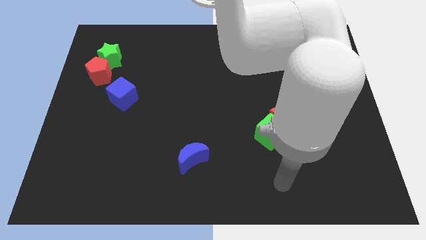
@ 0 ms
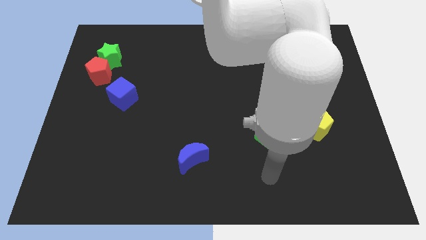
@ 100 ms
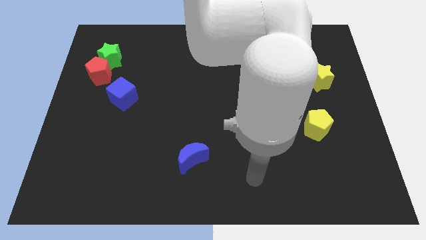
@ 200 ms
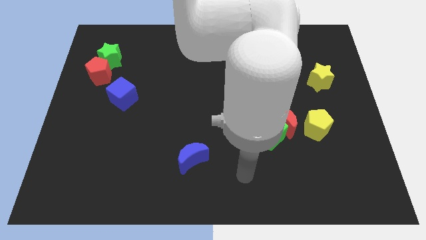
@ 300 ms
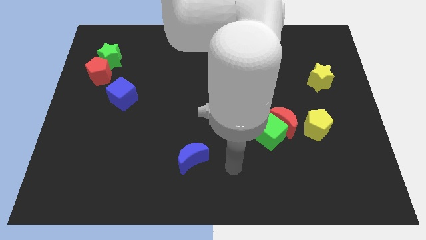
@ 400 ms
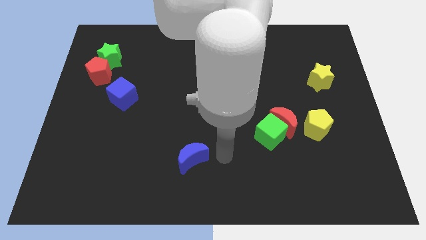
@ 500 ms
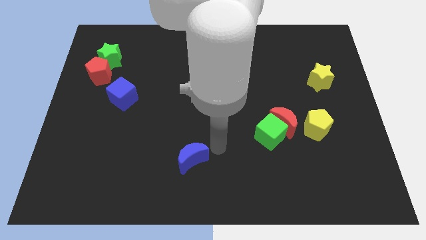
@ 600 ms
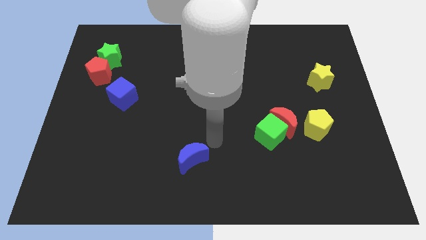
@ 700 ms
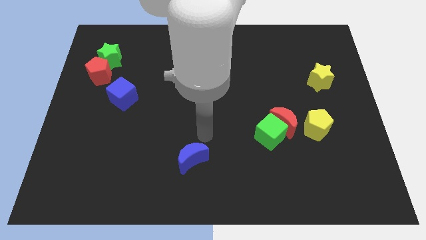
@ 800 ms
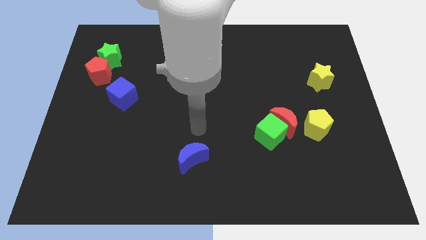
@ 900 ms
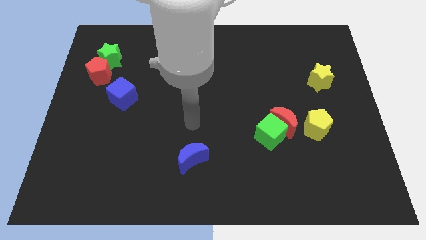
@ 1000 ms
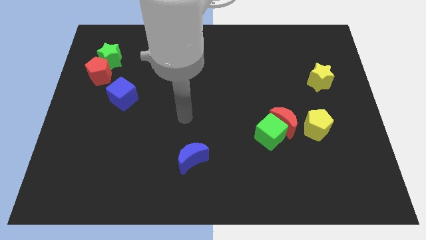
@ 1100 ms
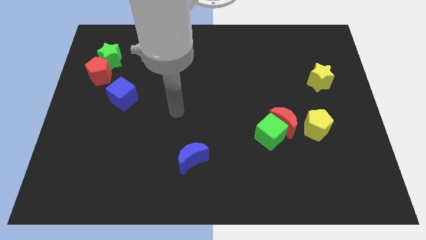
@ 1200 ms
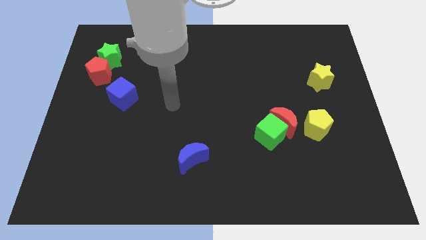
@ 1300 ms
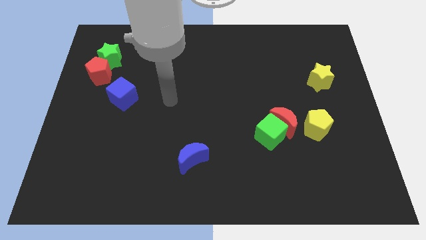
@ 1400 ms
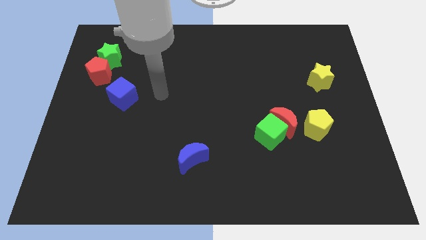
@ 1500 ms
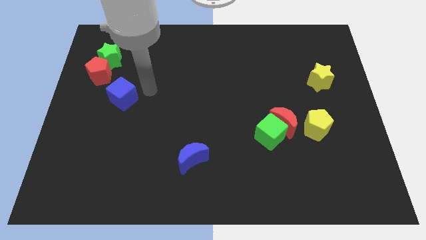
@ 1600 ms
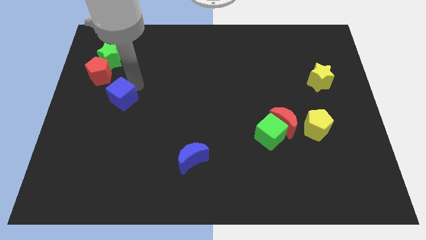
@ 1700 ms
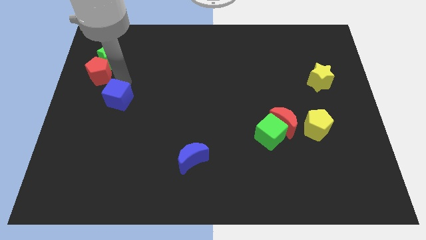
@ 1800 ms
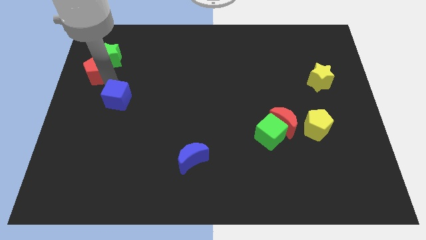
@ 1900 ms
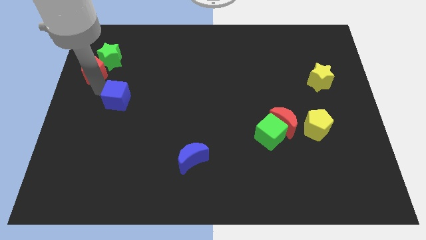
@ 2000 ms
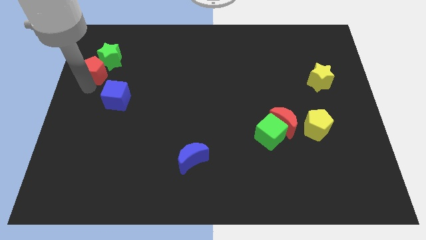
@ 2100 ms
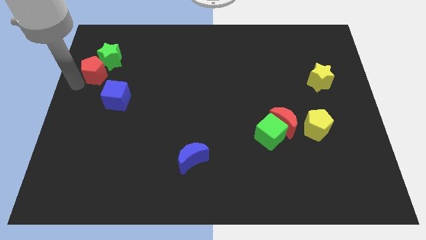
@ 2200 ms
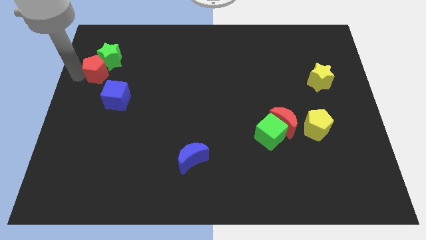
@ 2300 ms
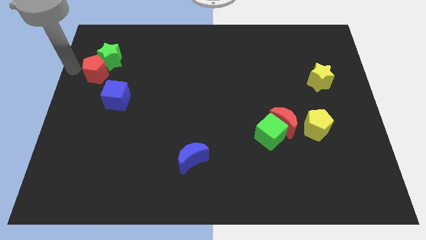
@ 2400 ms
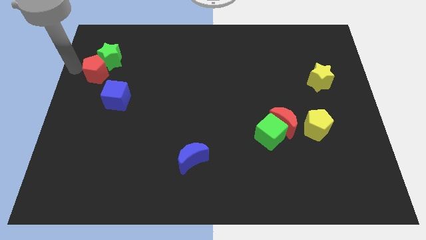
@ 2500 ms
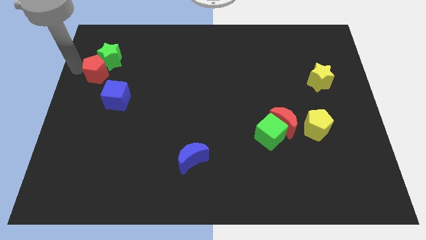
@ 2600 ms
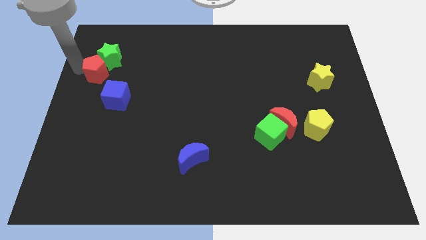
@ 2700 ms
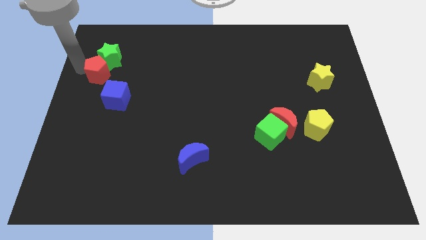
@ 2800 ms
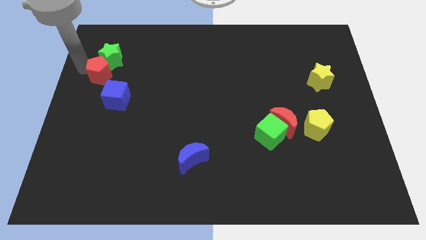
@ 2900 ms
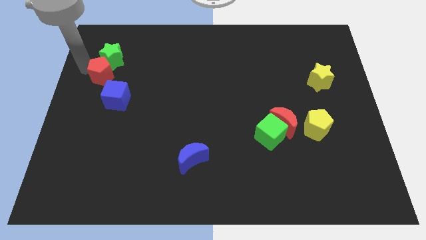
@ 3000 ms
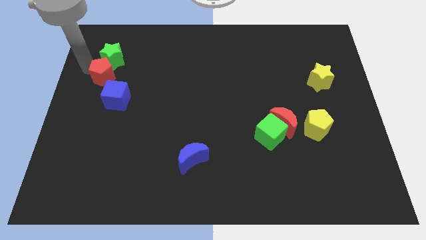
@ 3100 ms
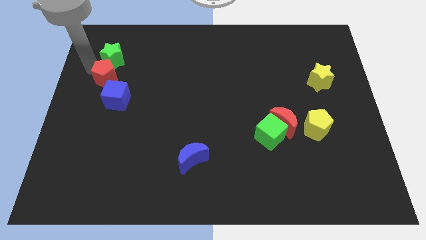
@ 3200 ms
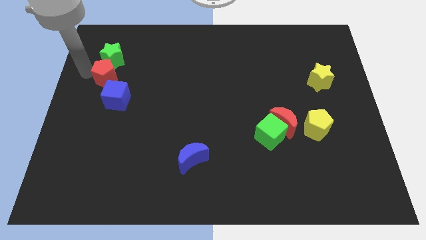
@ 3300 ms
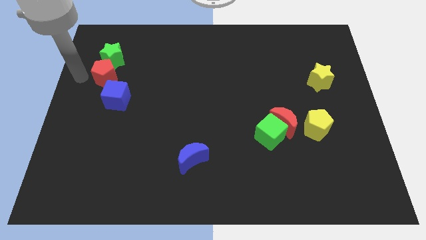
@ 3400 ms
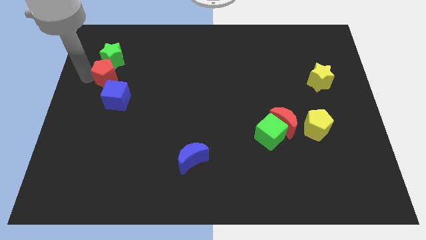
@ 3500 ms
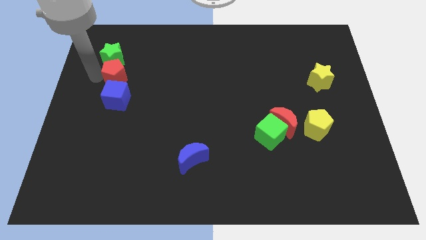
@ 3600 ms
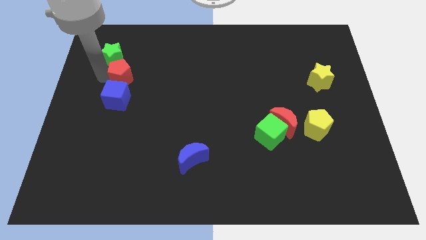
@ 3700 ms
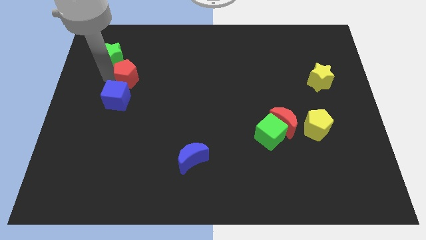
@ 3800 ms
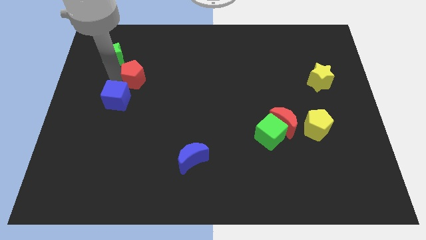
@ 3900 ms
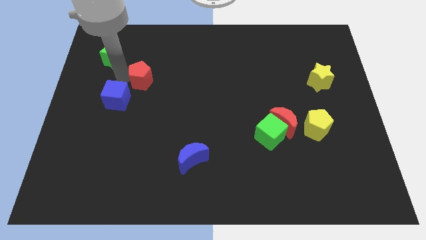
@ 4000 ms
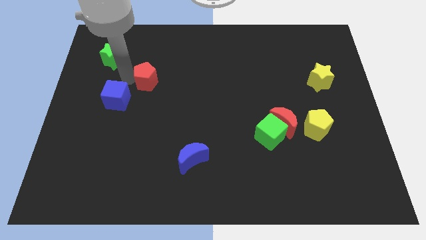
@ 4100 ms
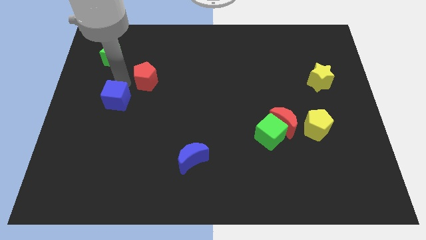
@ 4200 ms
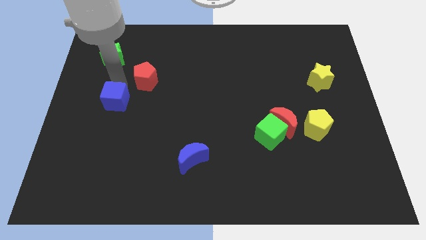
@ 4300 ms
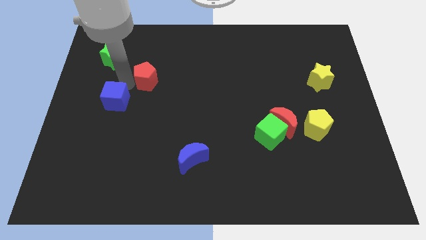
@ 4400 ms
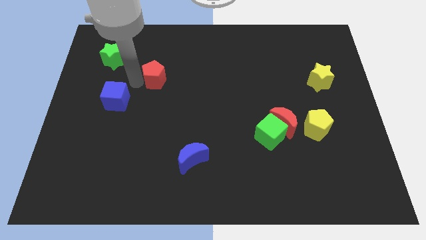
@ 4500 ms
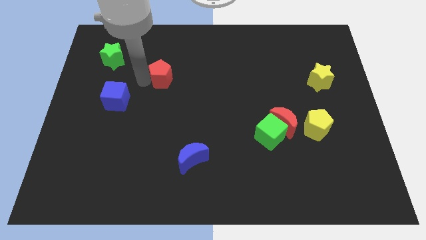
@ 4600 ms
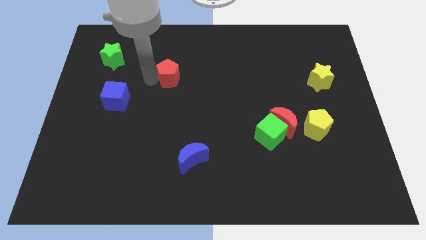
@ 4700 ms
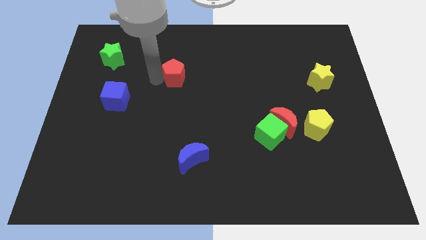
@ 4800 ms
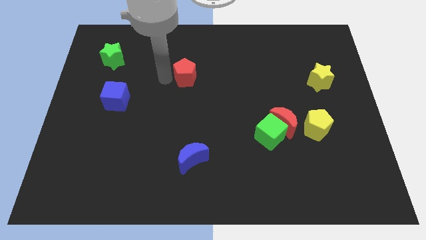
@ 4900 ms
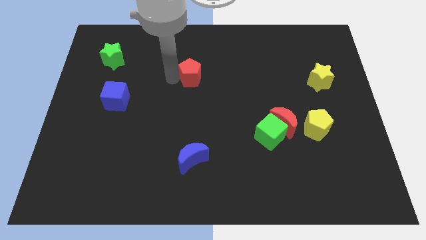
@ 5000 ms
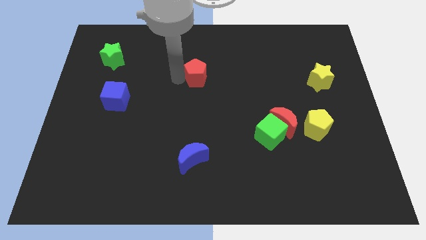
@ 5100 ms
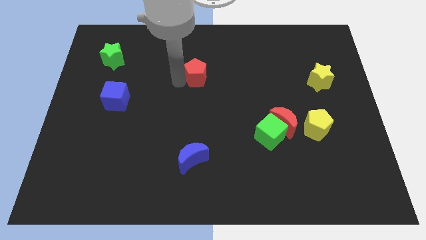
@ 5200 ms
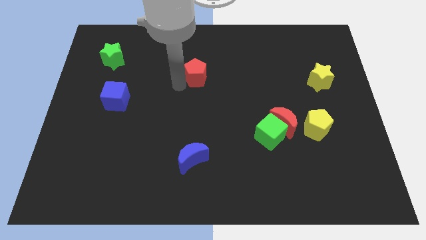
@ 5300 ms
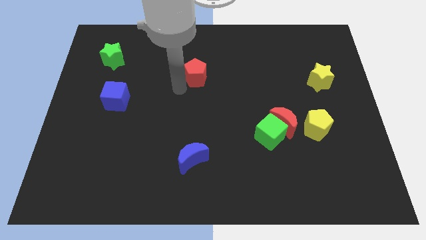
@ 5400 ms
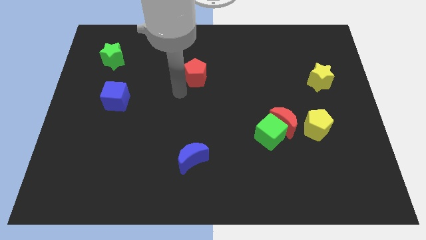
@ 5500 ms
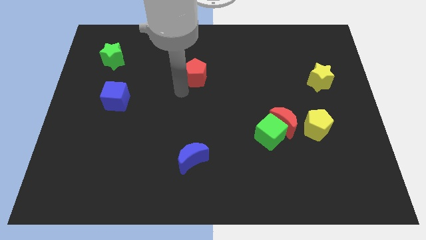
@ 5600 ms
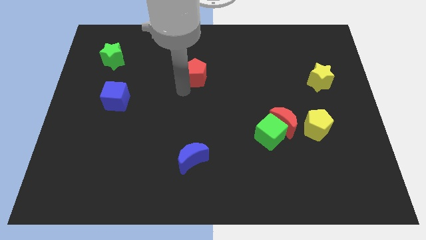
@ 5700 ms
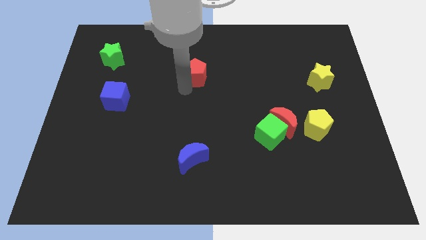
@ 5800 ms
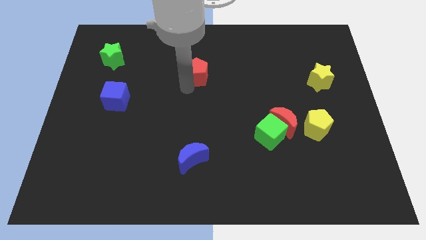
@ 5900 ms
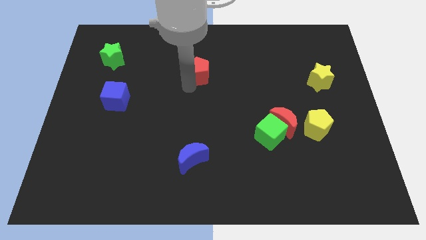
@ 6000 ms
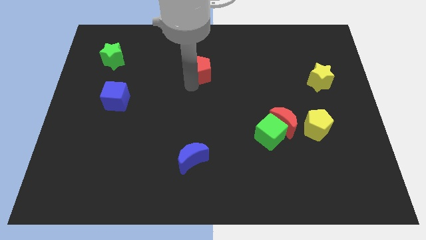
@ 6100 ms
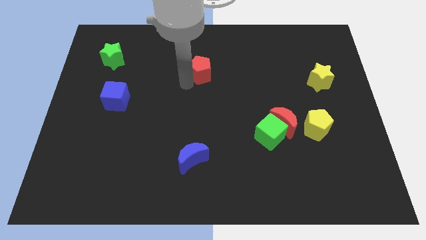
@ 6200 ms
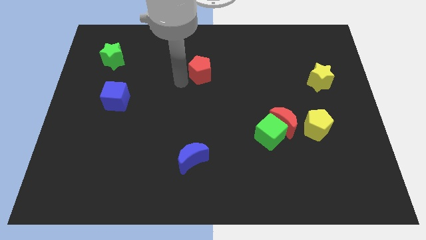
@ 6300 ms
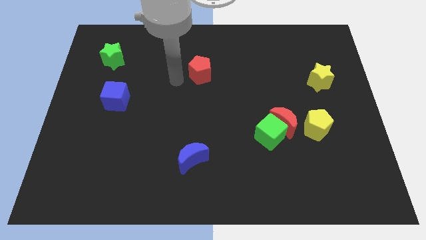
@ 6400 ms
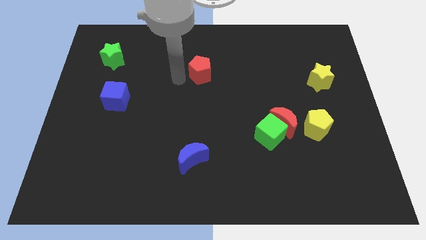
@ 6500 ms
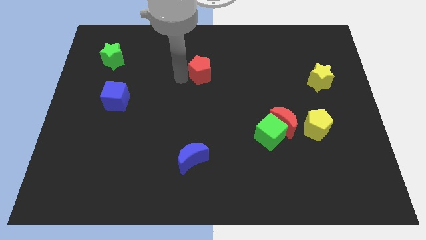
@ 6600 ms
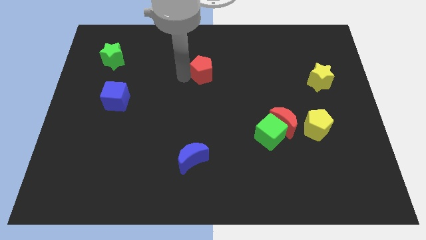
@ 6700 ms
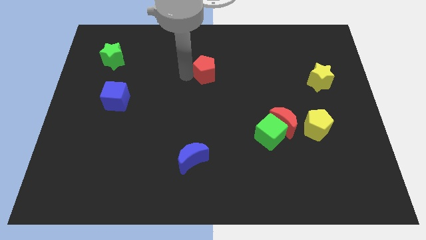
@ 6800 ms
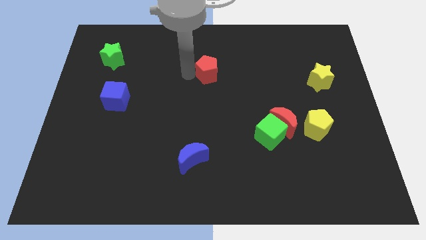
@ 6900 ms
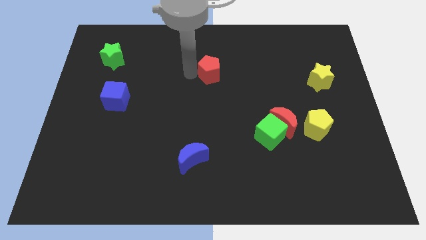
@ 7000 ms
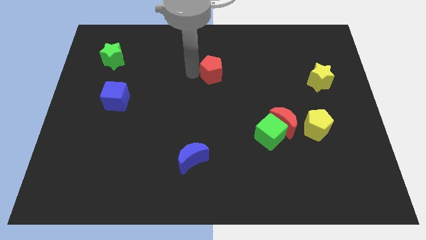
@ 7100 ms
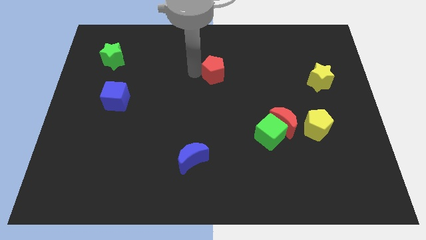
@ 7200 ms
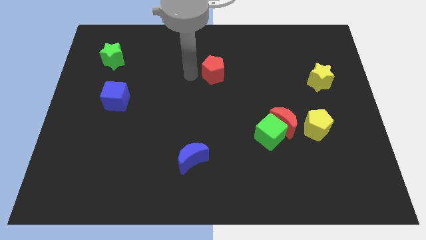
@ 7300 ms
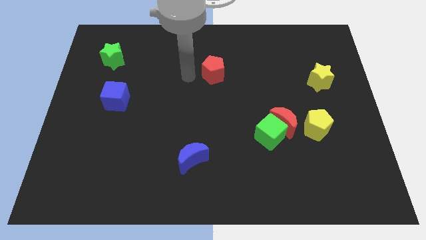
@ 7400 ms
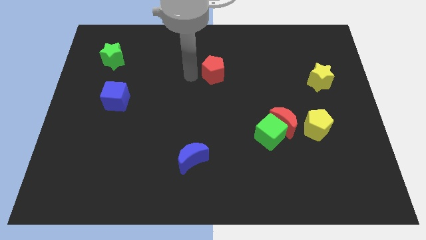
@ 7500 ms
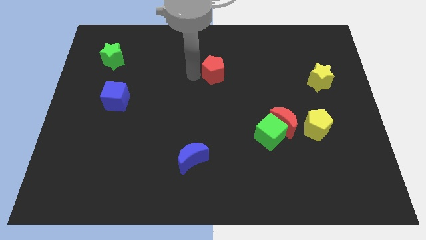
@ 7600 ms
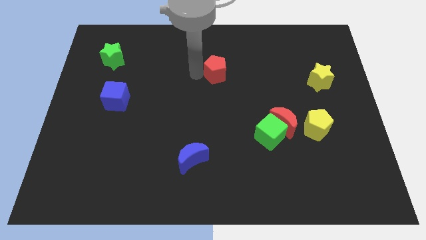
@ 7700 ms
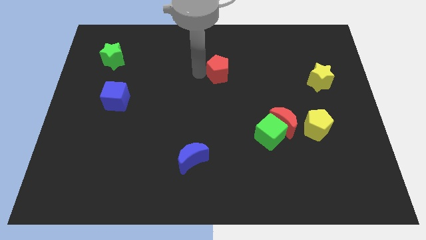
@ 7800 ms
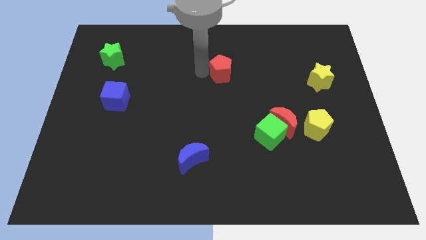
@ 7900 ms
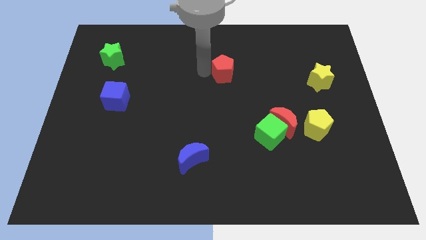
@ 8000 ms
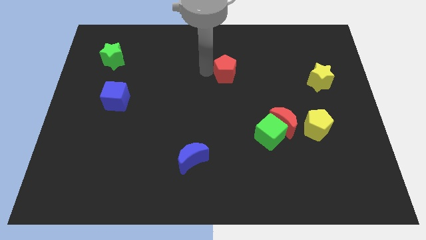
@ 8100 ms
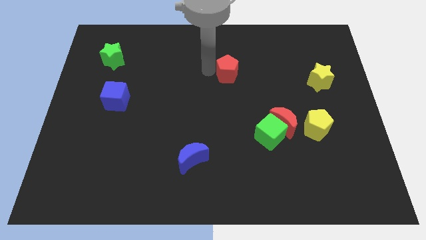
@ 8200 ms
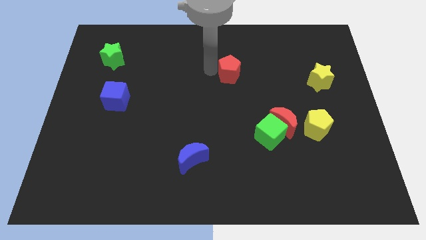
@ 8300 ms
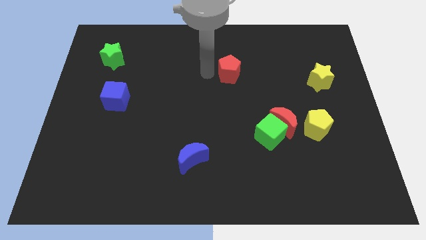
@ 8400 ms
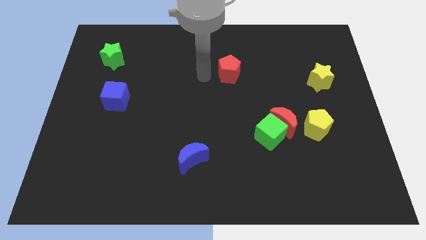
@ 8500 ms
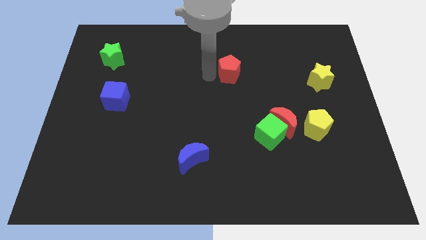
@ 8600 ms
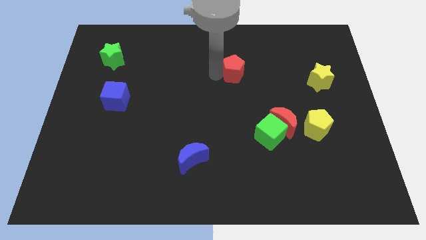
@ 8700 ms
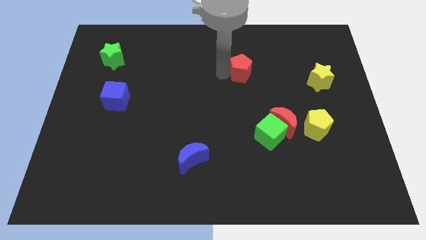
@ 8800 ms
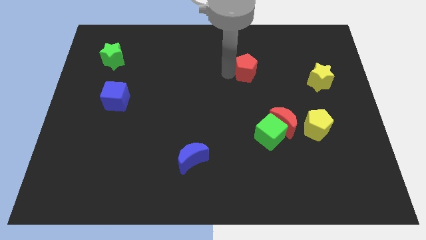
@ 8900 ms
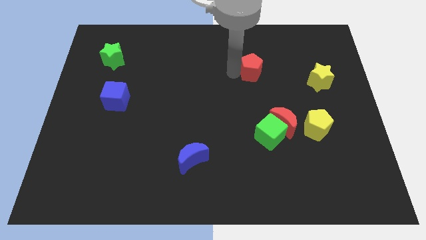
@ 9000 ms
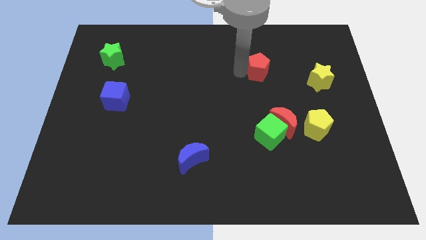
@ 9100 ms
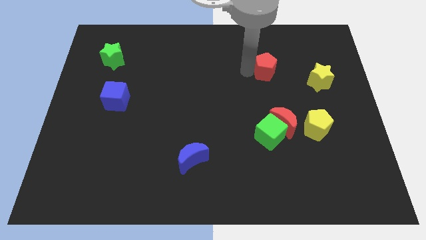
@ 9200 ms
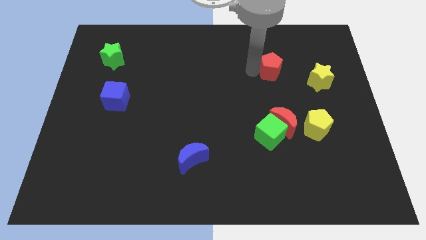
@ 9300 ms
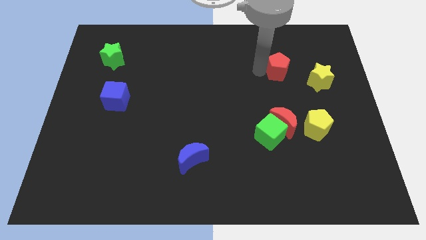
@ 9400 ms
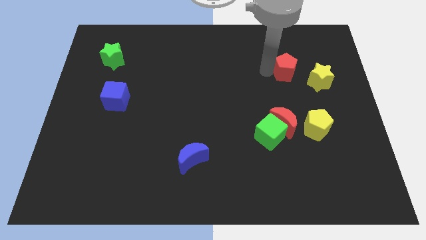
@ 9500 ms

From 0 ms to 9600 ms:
slide the red pentagon diagonally up and to the left of the yellow star
